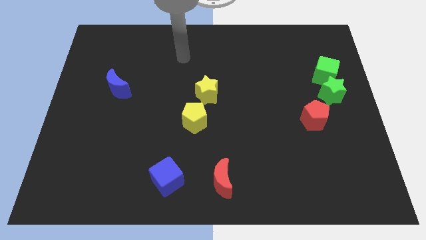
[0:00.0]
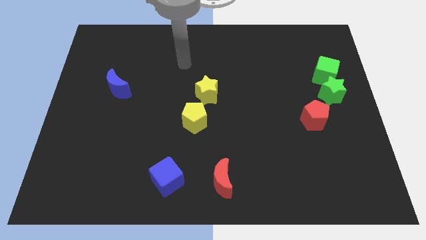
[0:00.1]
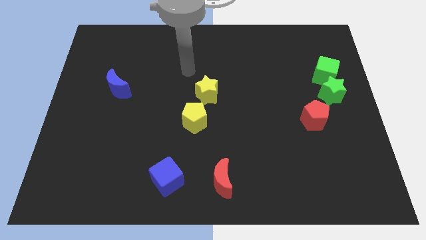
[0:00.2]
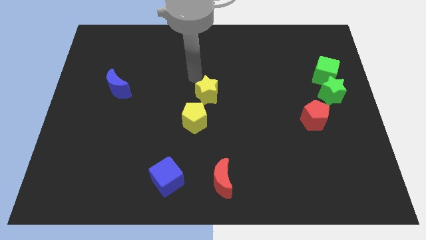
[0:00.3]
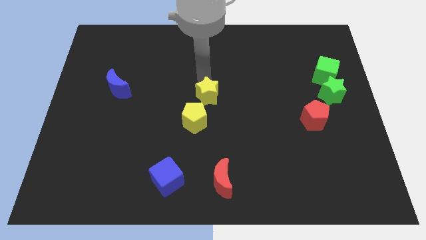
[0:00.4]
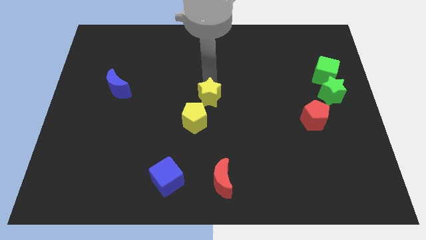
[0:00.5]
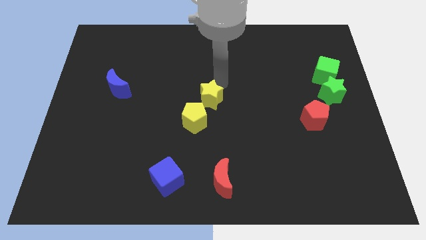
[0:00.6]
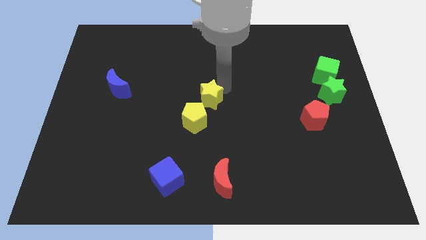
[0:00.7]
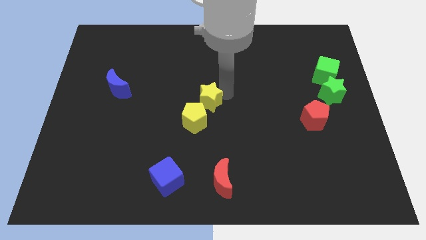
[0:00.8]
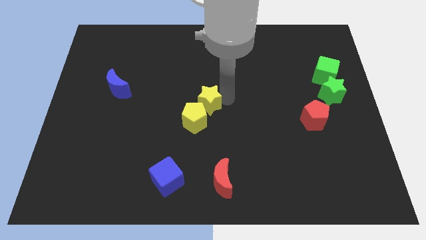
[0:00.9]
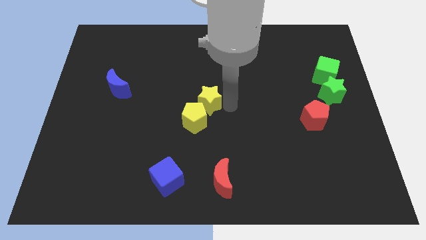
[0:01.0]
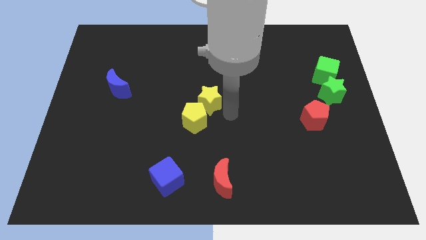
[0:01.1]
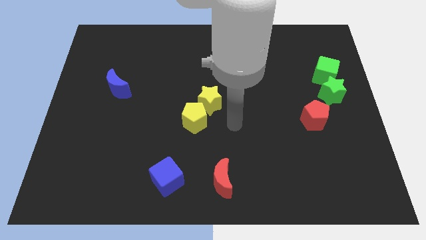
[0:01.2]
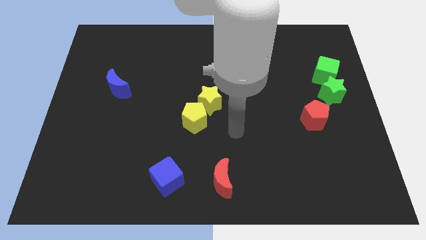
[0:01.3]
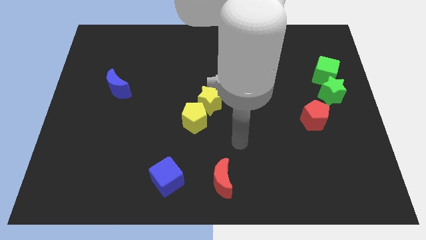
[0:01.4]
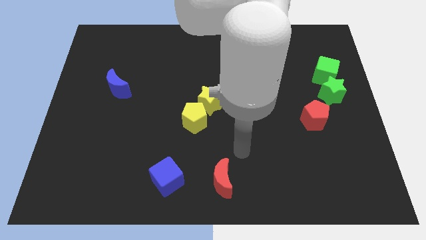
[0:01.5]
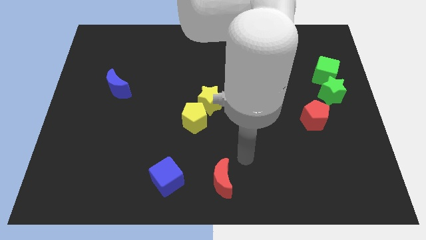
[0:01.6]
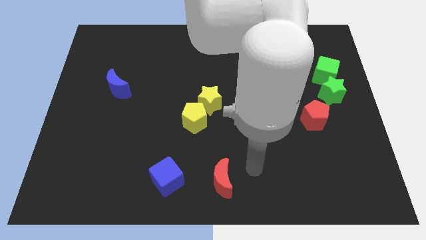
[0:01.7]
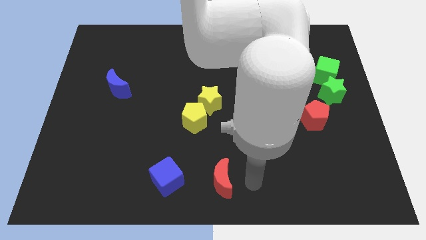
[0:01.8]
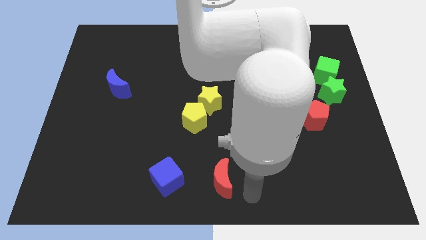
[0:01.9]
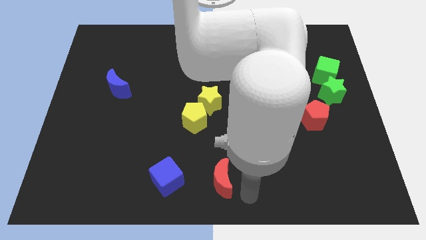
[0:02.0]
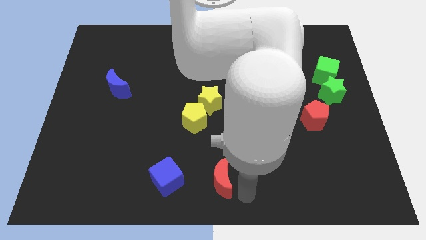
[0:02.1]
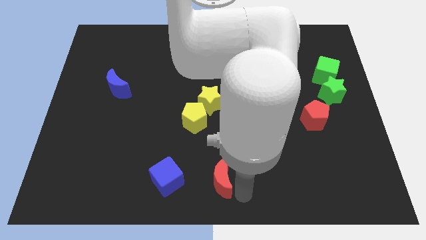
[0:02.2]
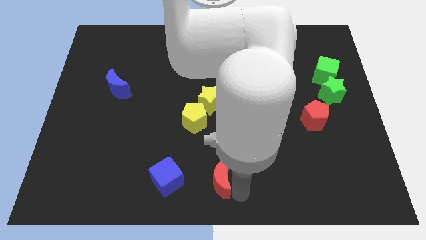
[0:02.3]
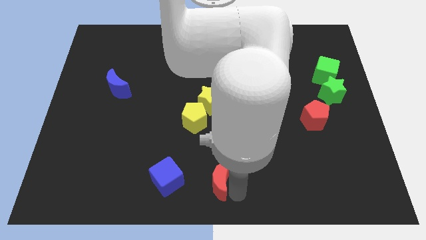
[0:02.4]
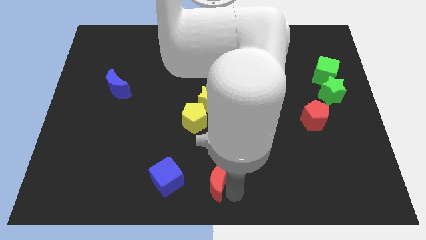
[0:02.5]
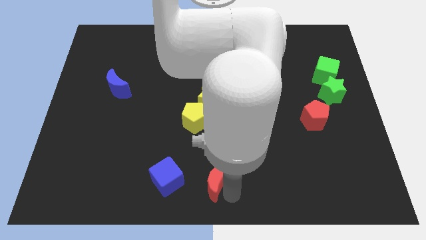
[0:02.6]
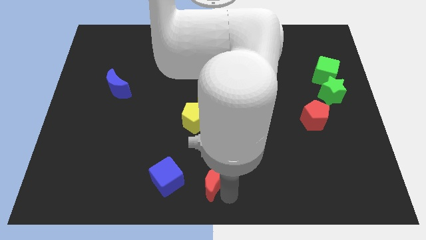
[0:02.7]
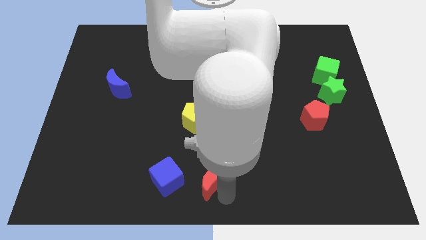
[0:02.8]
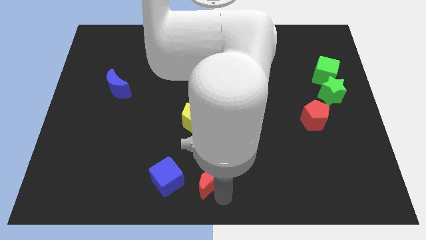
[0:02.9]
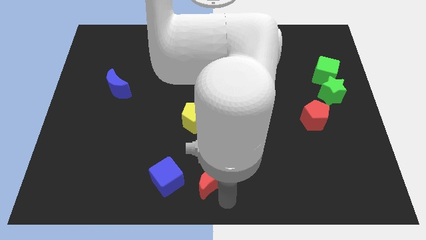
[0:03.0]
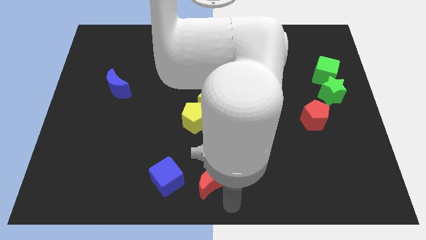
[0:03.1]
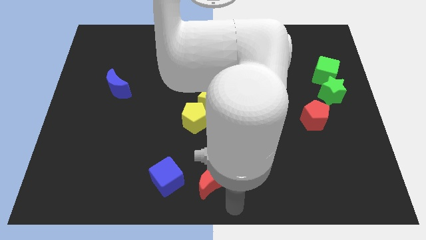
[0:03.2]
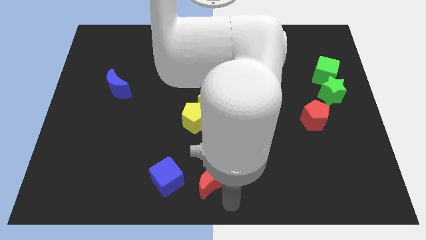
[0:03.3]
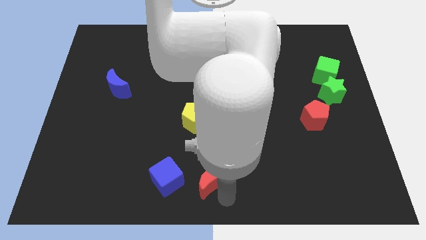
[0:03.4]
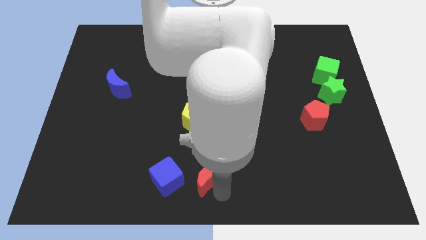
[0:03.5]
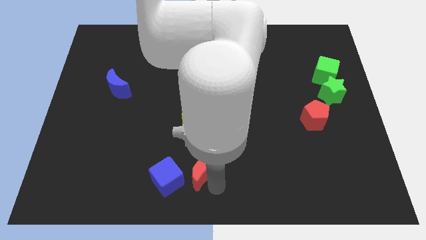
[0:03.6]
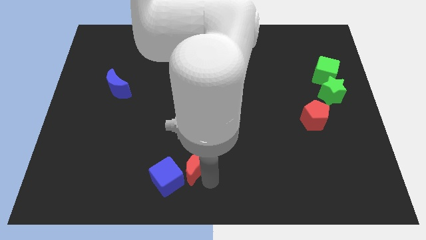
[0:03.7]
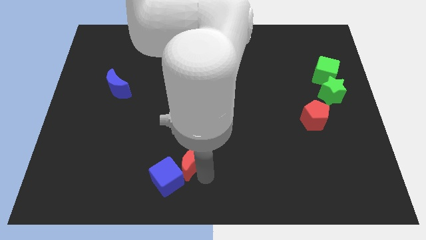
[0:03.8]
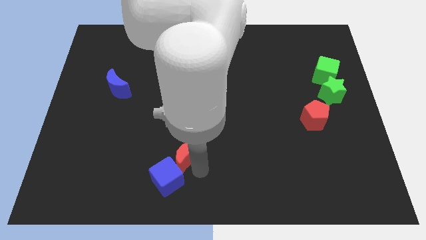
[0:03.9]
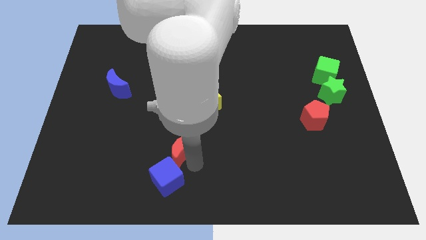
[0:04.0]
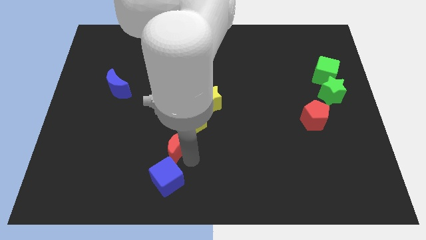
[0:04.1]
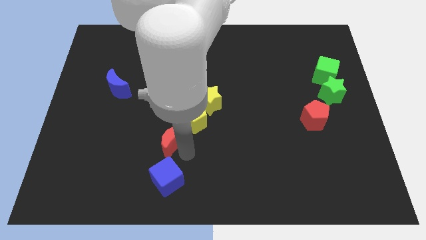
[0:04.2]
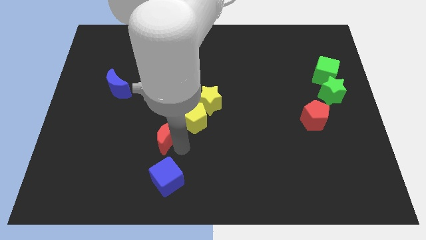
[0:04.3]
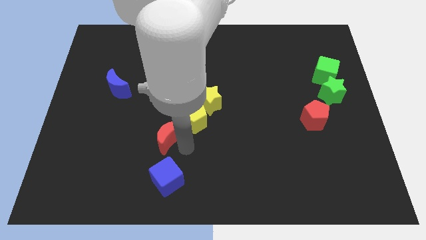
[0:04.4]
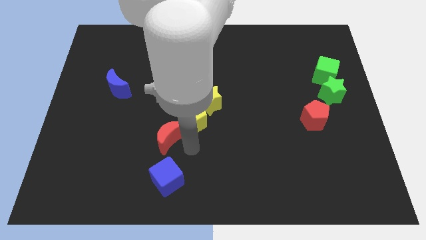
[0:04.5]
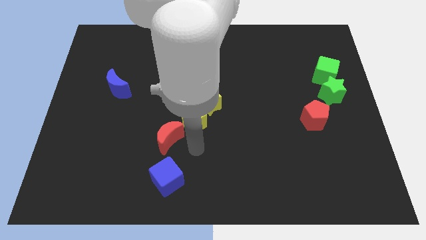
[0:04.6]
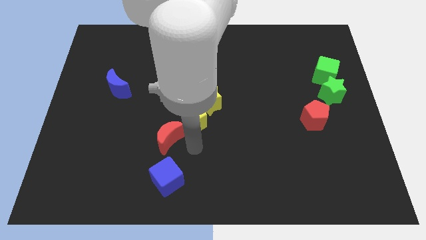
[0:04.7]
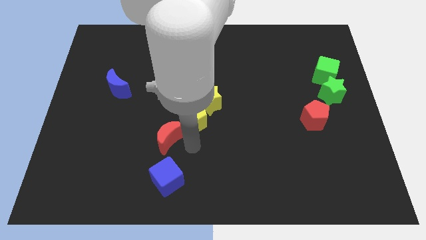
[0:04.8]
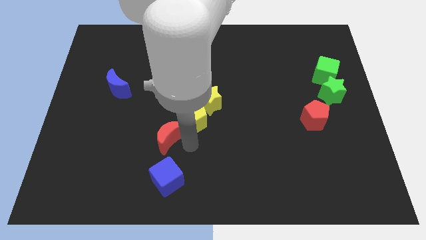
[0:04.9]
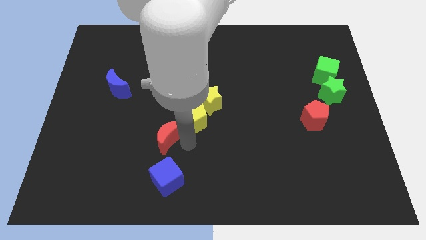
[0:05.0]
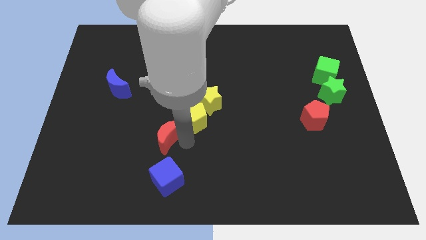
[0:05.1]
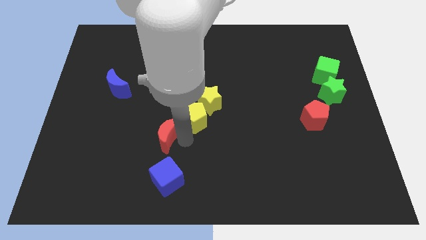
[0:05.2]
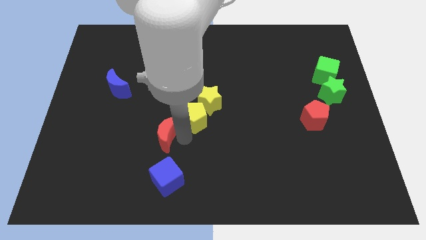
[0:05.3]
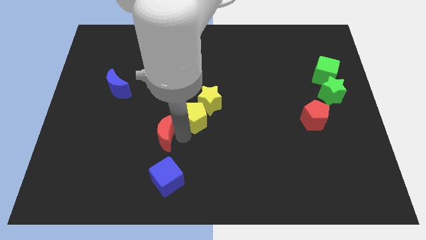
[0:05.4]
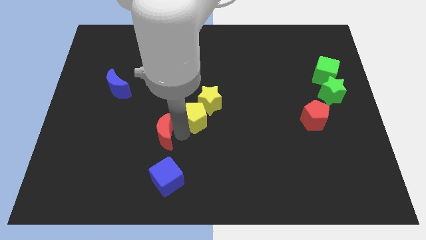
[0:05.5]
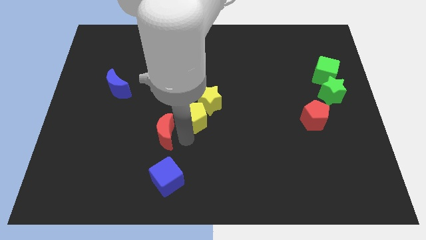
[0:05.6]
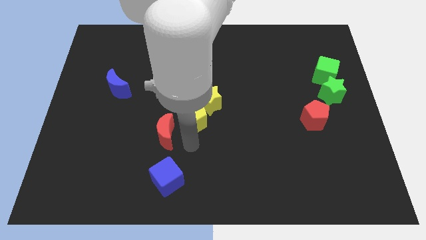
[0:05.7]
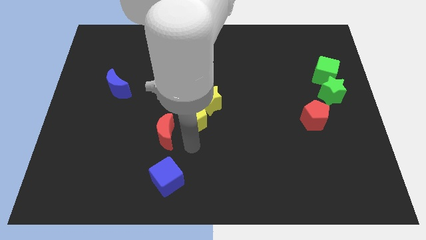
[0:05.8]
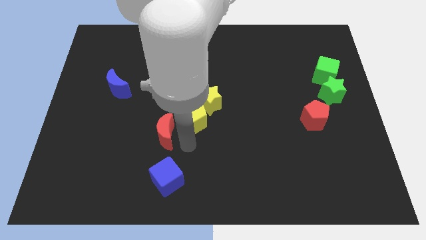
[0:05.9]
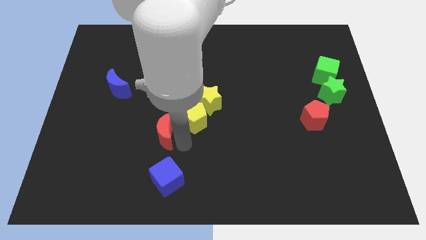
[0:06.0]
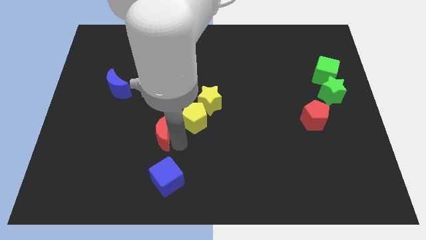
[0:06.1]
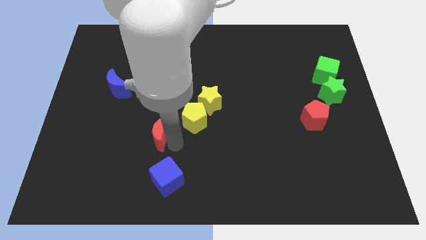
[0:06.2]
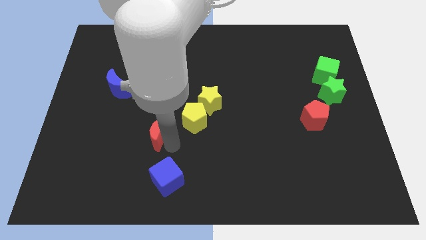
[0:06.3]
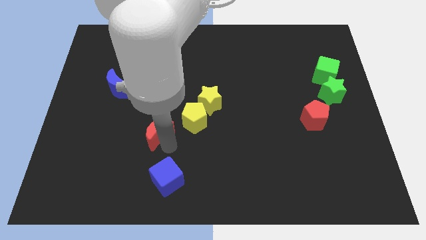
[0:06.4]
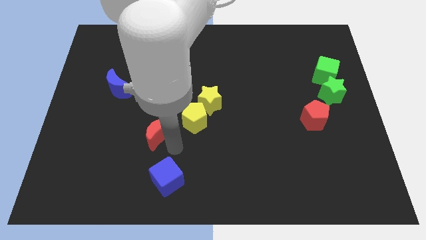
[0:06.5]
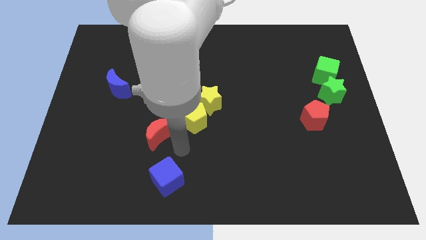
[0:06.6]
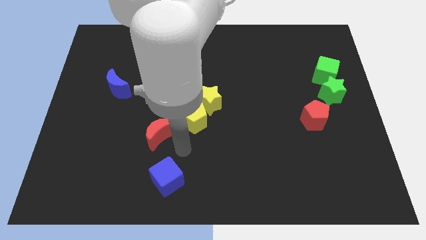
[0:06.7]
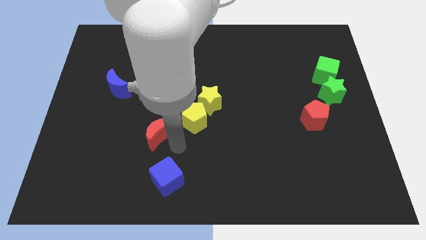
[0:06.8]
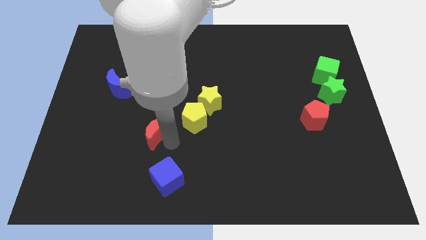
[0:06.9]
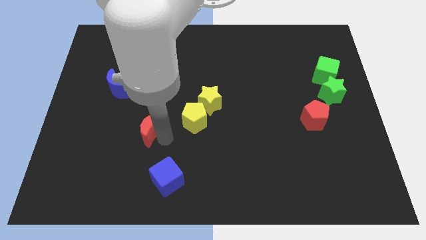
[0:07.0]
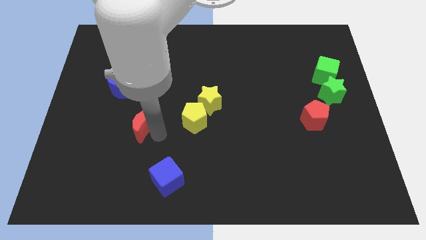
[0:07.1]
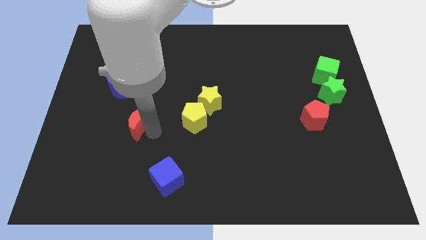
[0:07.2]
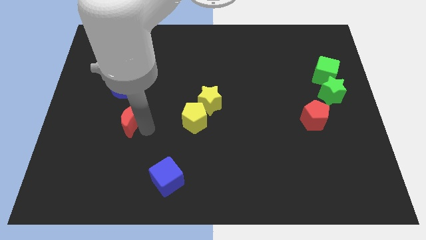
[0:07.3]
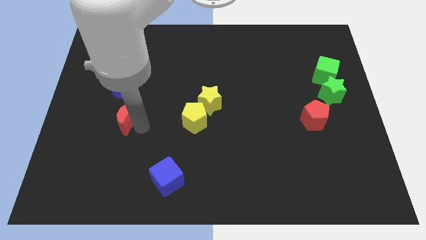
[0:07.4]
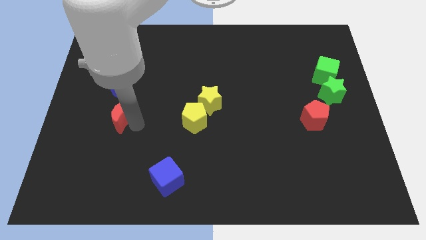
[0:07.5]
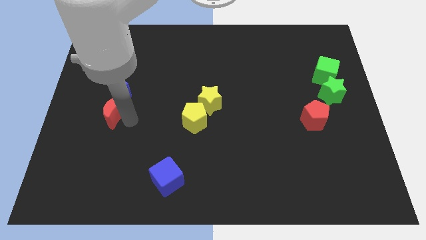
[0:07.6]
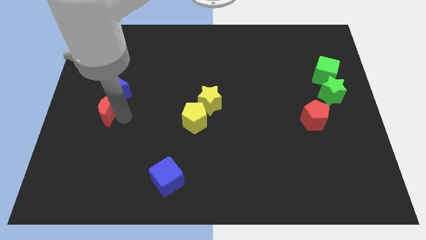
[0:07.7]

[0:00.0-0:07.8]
slide the red moon to the bottom left of the blue moon

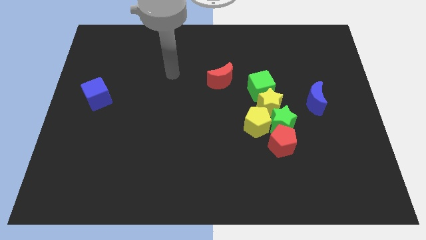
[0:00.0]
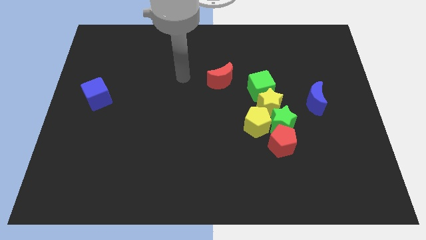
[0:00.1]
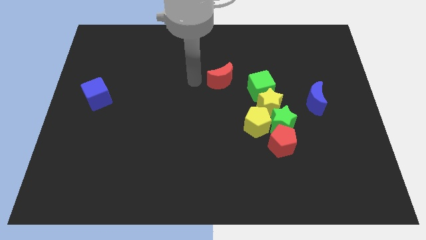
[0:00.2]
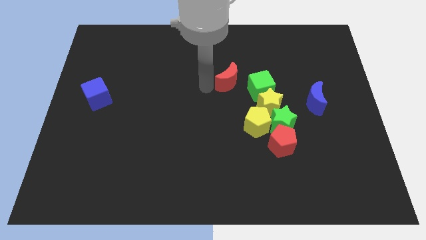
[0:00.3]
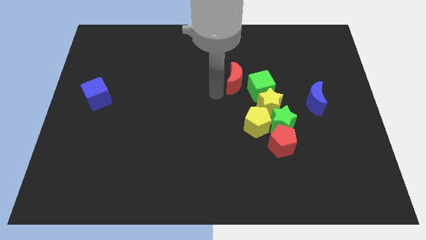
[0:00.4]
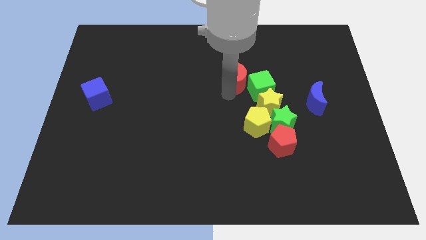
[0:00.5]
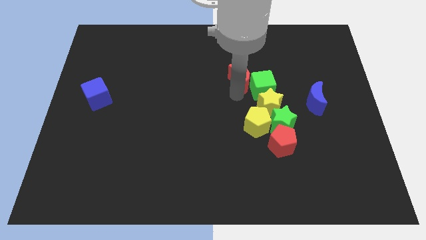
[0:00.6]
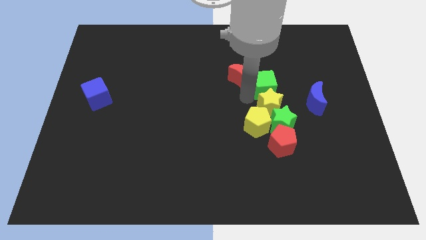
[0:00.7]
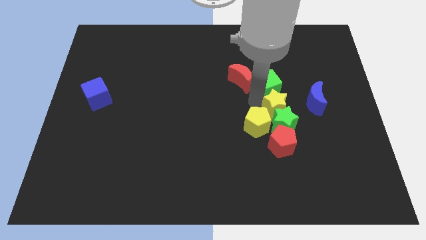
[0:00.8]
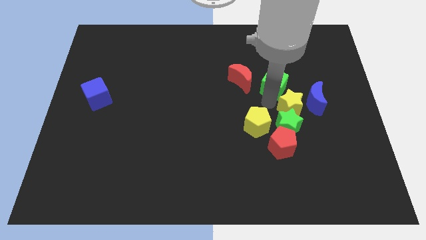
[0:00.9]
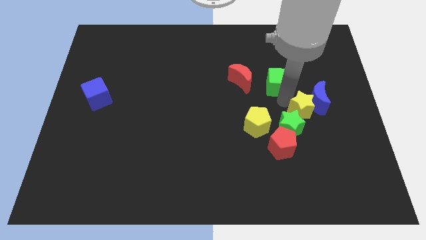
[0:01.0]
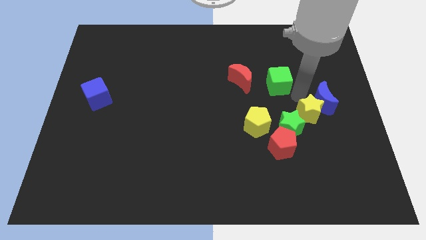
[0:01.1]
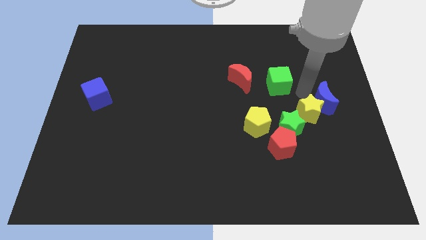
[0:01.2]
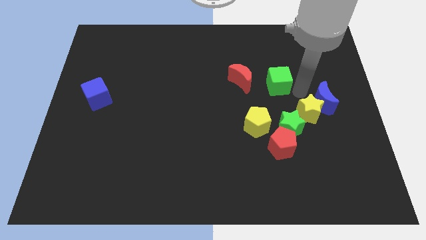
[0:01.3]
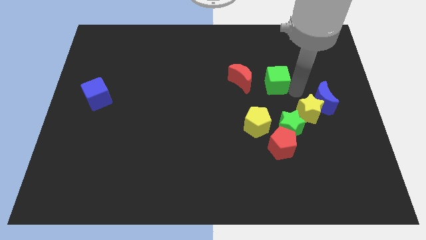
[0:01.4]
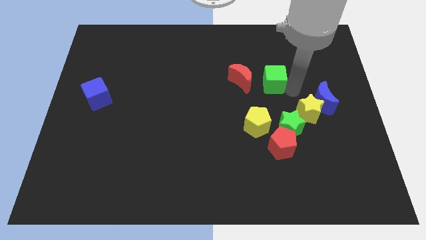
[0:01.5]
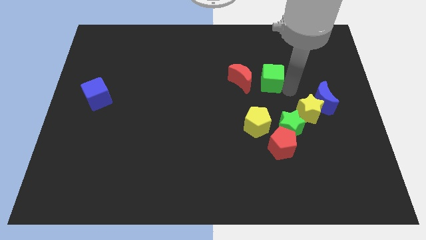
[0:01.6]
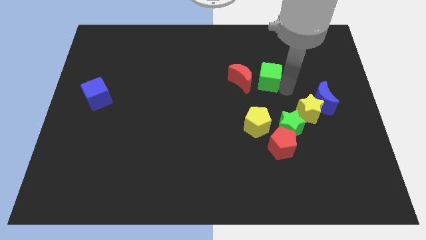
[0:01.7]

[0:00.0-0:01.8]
slide the green cube to the top right of the red moon
